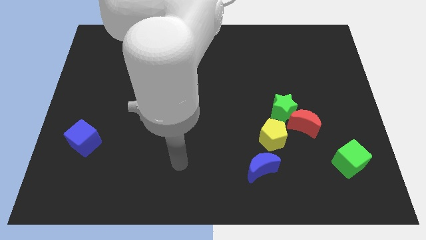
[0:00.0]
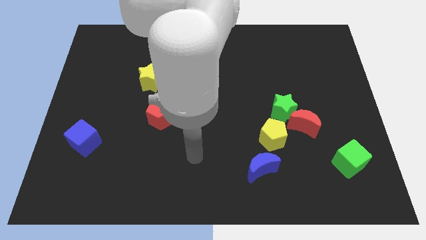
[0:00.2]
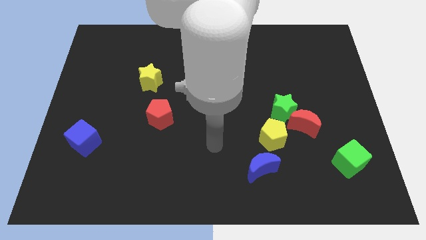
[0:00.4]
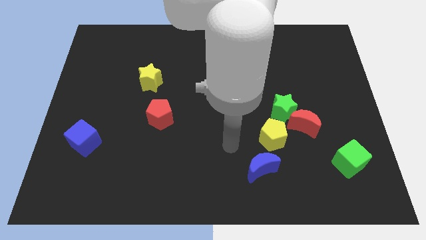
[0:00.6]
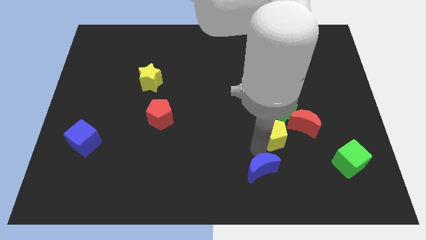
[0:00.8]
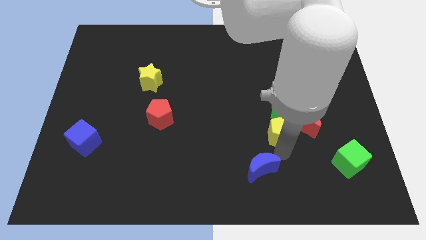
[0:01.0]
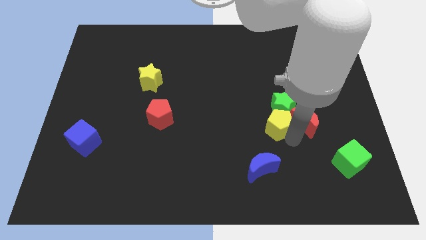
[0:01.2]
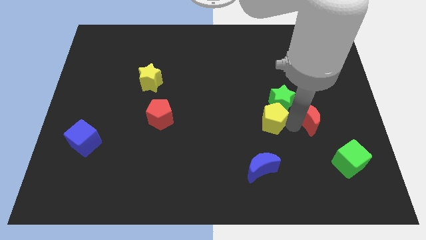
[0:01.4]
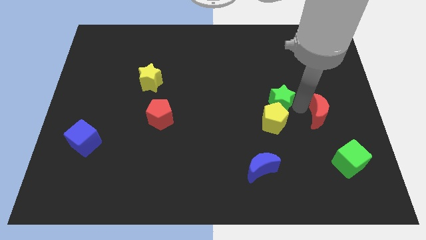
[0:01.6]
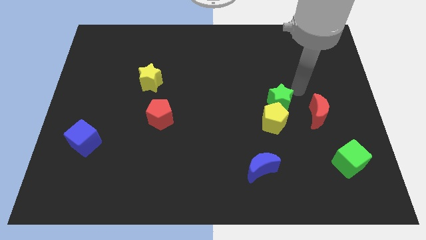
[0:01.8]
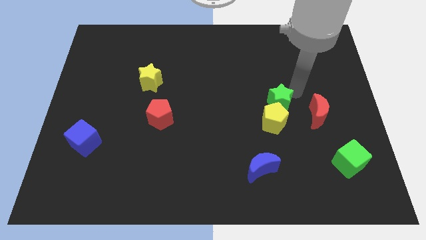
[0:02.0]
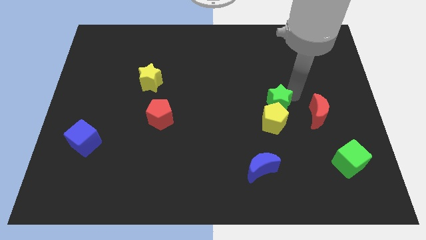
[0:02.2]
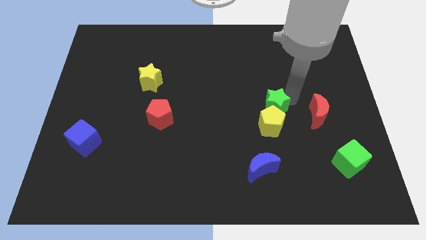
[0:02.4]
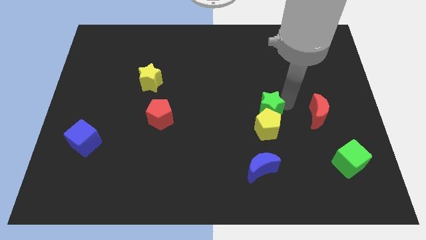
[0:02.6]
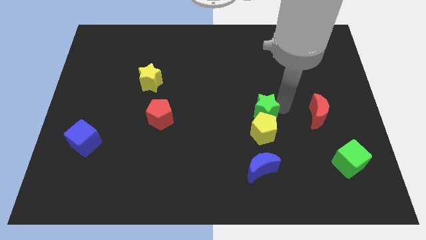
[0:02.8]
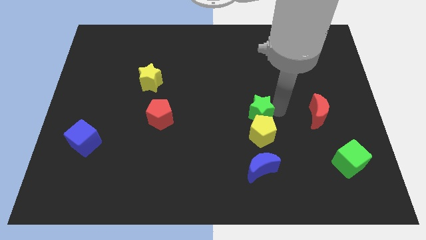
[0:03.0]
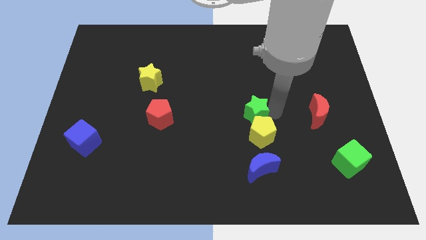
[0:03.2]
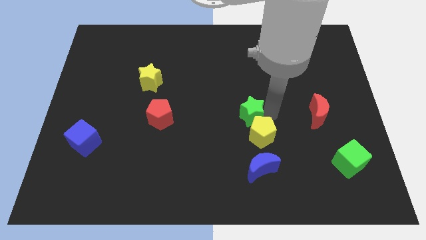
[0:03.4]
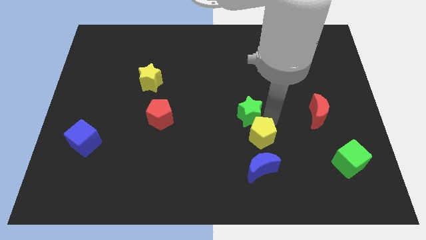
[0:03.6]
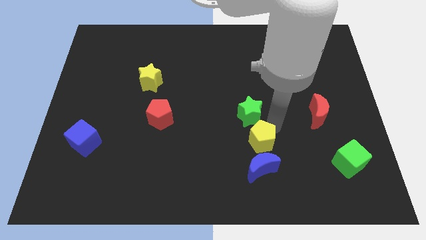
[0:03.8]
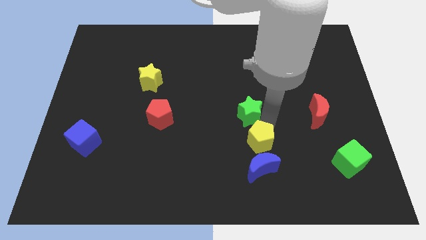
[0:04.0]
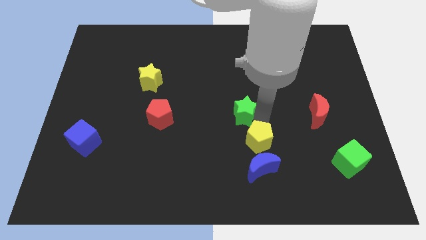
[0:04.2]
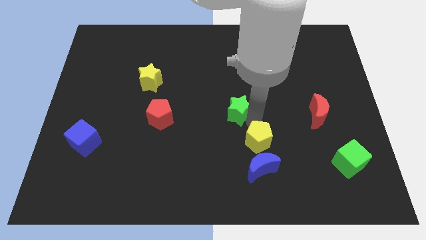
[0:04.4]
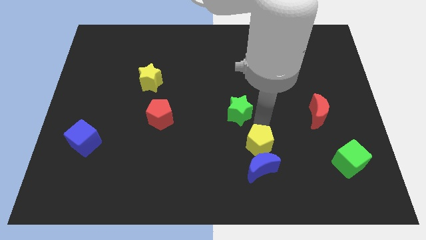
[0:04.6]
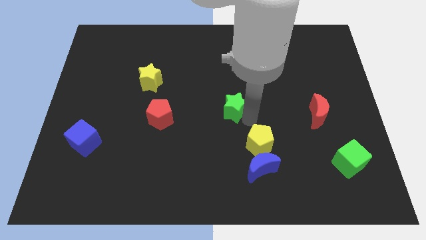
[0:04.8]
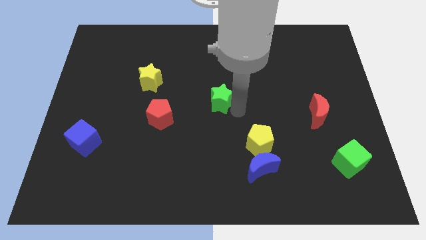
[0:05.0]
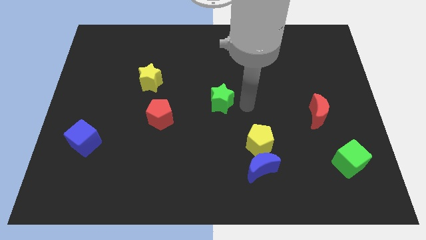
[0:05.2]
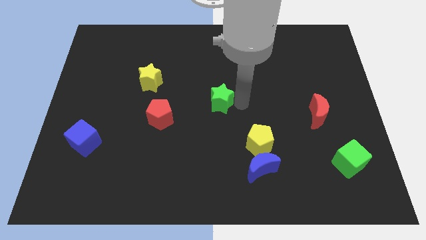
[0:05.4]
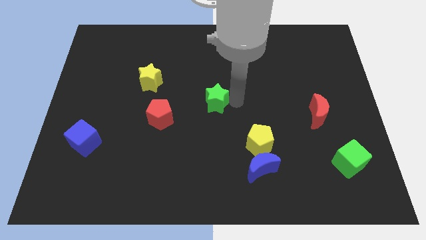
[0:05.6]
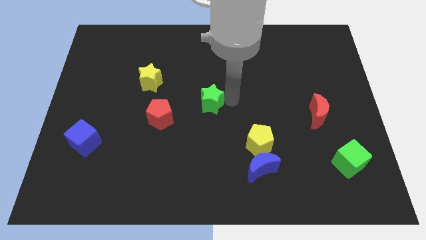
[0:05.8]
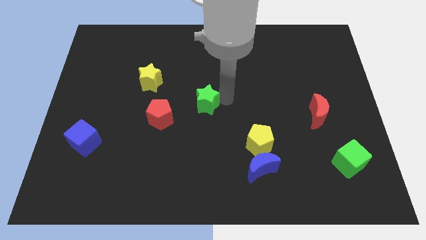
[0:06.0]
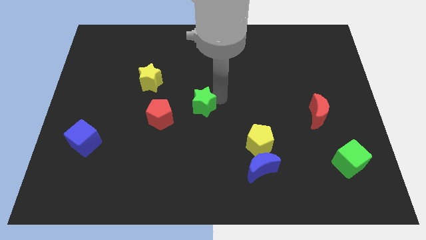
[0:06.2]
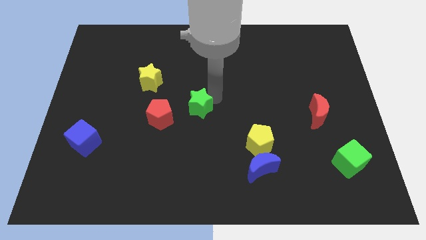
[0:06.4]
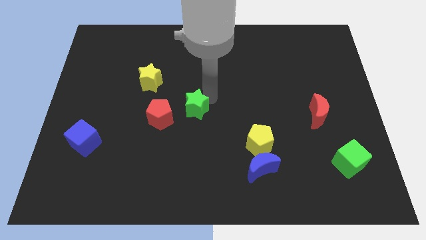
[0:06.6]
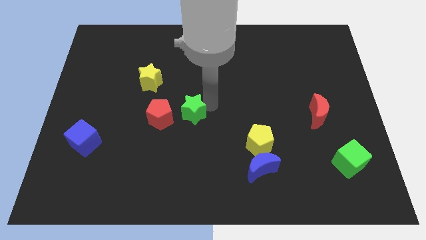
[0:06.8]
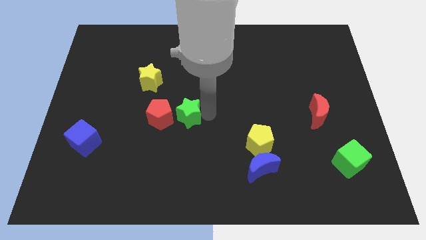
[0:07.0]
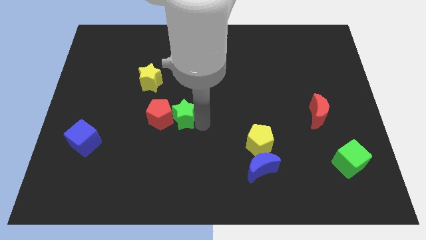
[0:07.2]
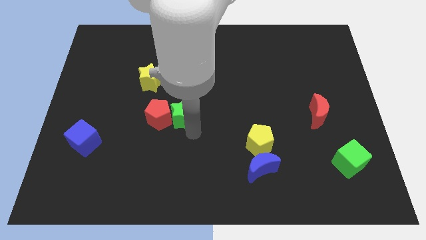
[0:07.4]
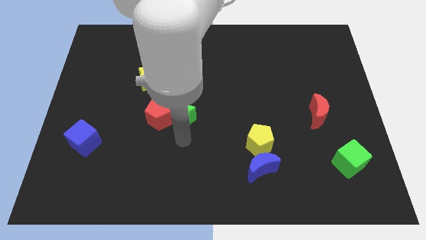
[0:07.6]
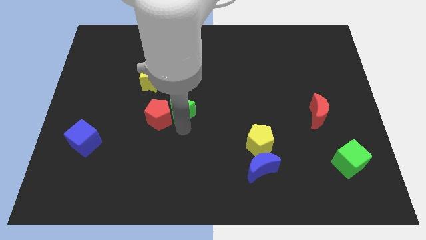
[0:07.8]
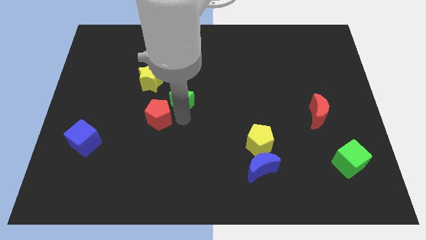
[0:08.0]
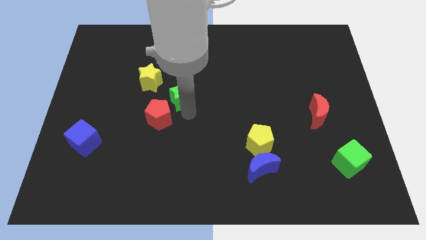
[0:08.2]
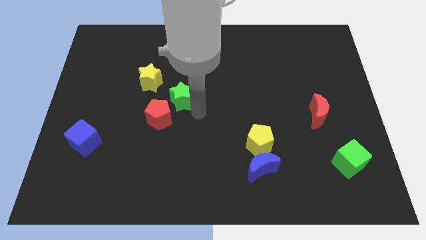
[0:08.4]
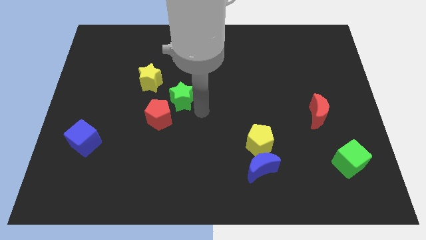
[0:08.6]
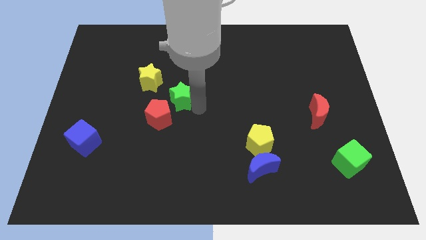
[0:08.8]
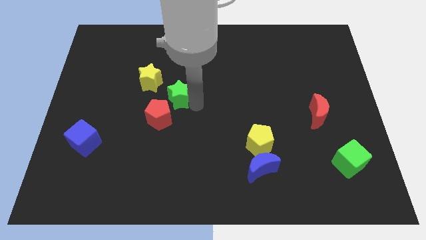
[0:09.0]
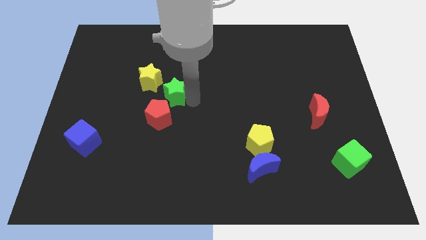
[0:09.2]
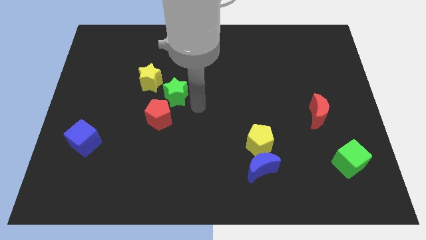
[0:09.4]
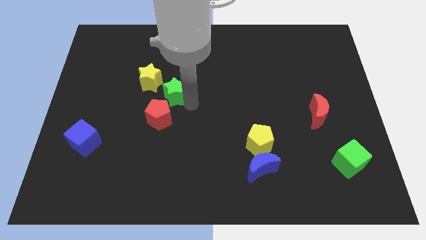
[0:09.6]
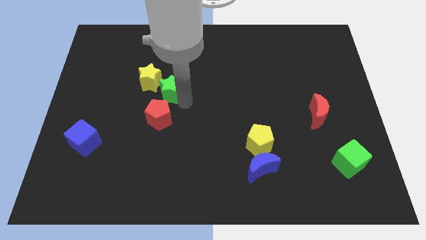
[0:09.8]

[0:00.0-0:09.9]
move the green star close to the yellow star

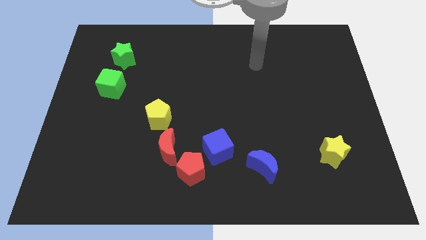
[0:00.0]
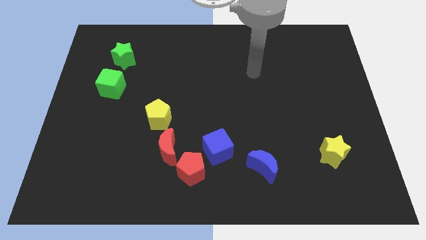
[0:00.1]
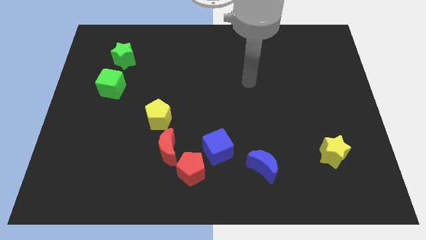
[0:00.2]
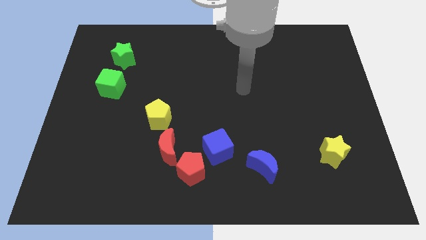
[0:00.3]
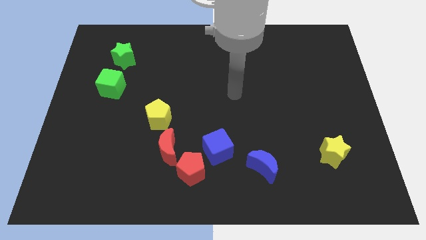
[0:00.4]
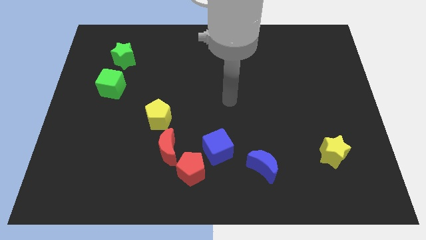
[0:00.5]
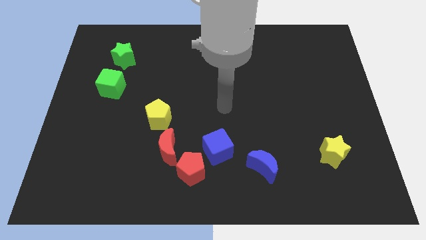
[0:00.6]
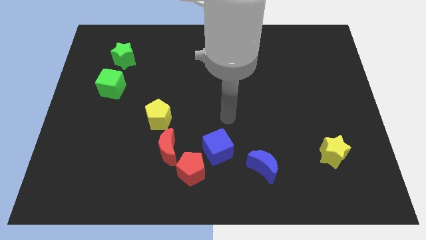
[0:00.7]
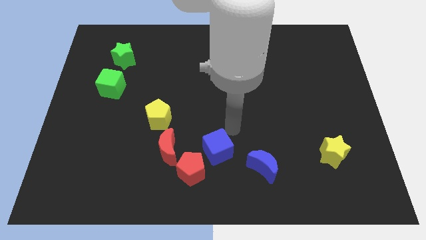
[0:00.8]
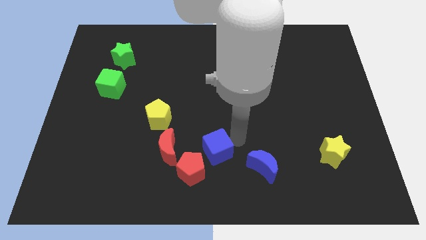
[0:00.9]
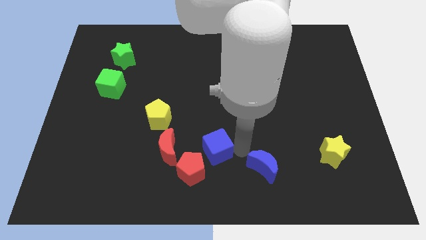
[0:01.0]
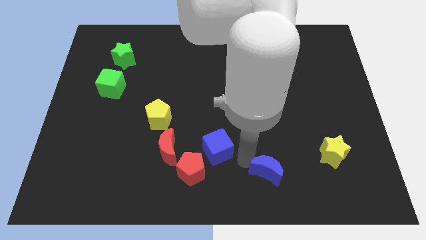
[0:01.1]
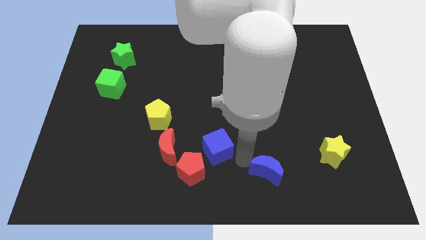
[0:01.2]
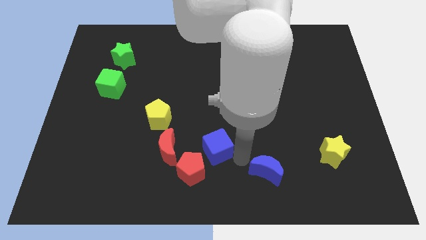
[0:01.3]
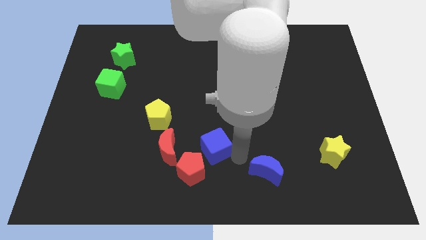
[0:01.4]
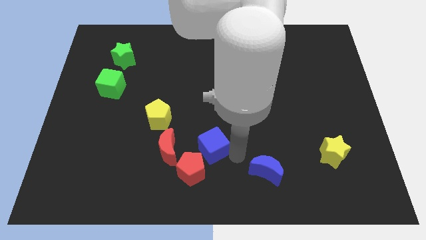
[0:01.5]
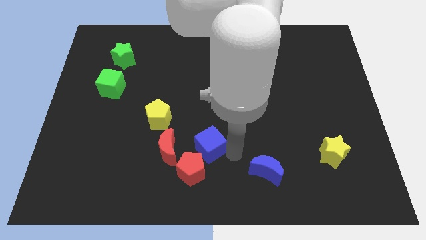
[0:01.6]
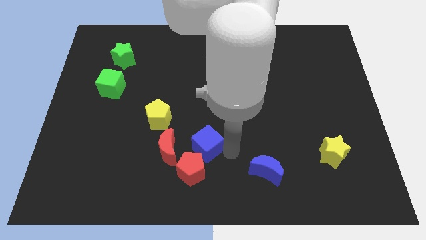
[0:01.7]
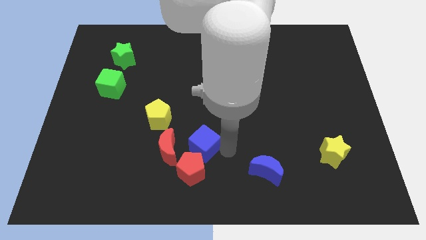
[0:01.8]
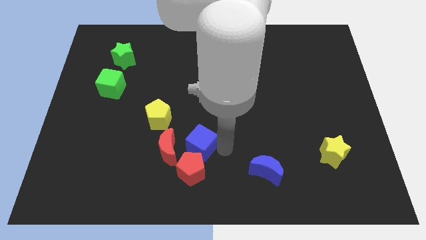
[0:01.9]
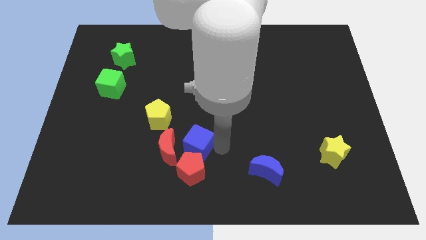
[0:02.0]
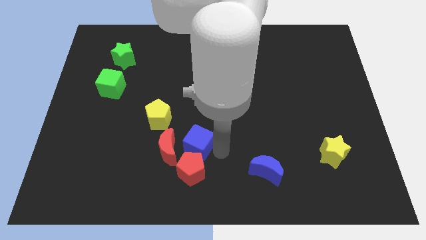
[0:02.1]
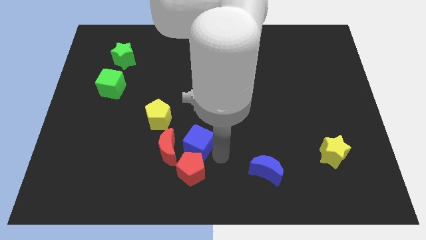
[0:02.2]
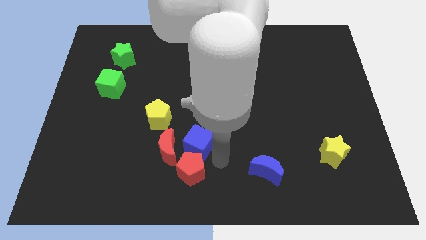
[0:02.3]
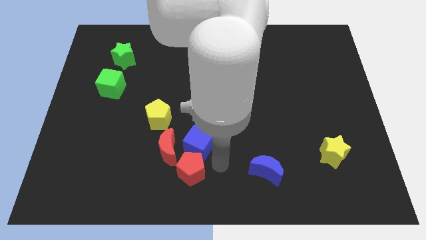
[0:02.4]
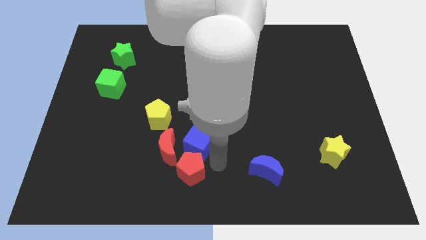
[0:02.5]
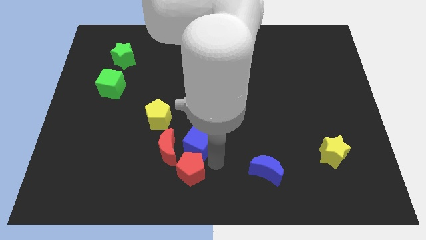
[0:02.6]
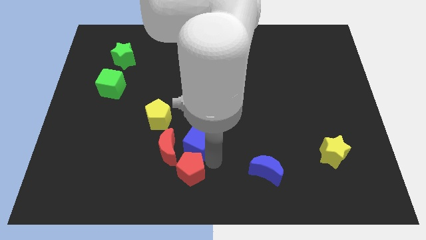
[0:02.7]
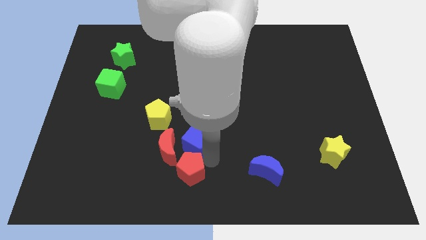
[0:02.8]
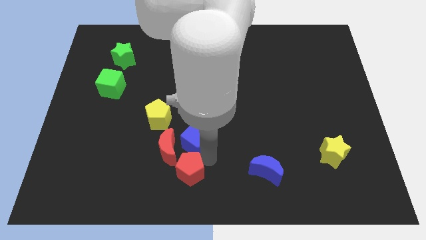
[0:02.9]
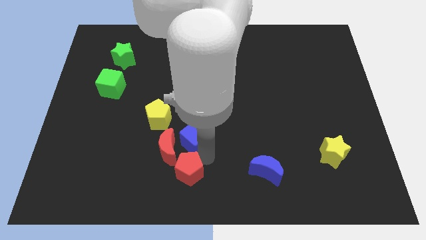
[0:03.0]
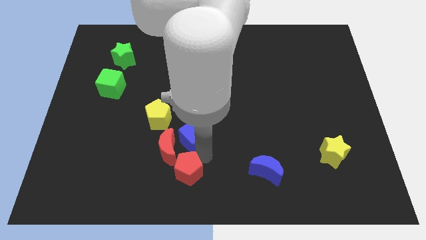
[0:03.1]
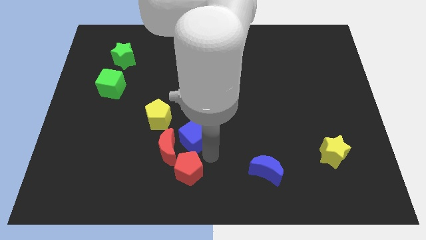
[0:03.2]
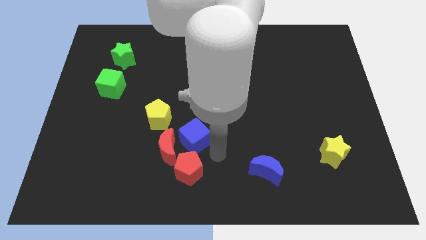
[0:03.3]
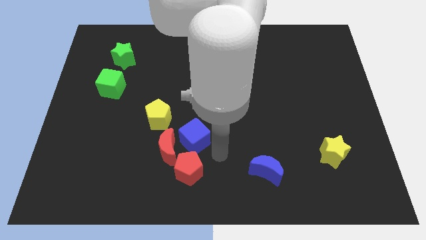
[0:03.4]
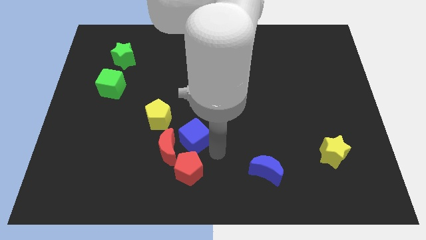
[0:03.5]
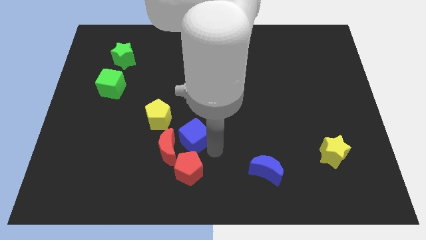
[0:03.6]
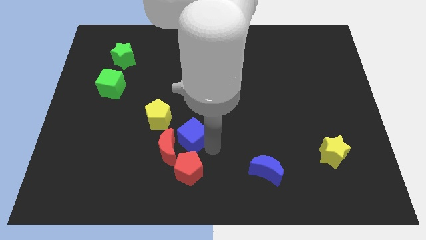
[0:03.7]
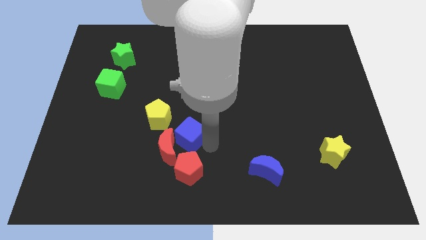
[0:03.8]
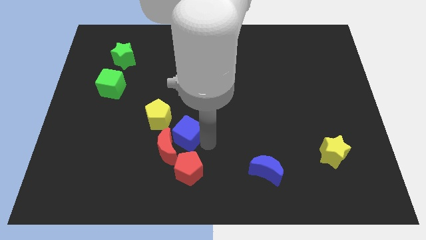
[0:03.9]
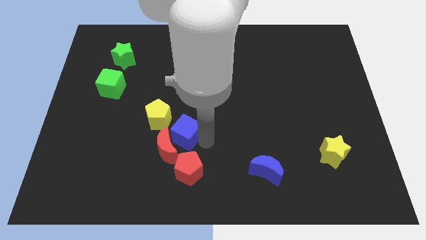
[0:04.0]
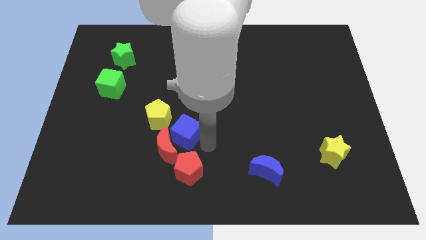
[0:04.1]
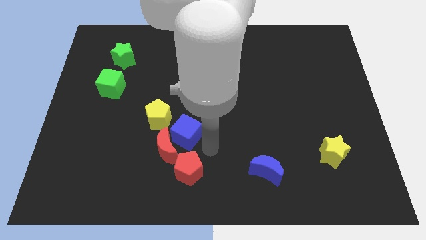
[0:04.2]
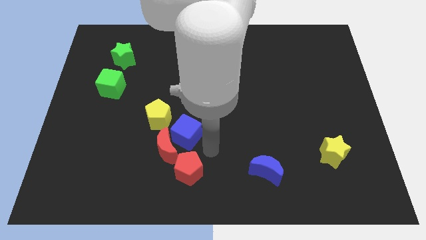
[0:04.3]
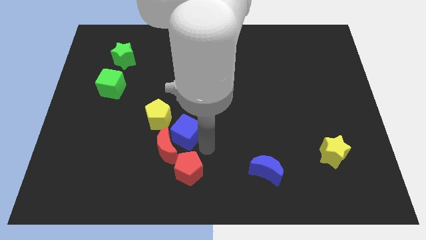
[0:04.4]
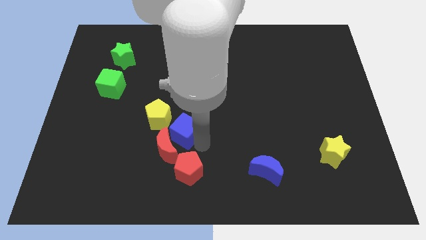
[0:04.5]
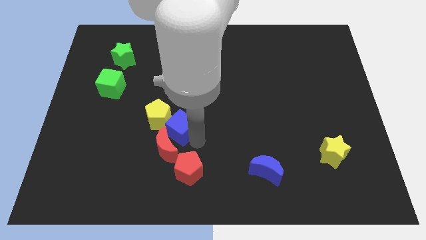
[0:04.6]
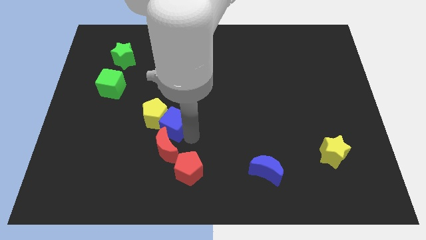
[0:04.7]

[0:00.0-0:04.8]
slide the blue cube towards the yellow pentagon
